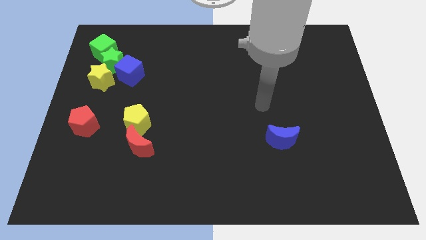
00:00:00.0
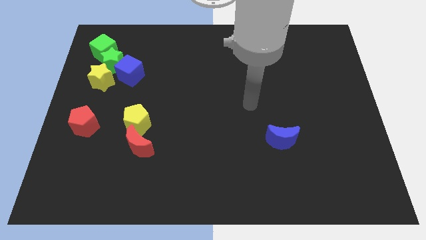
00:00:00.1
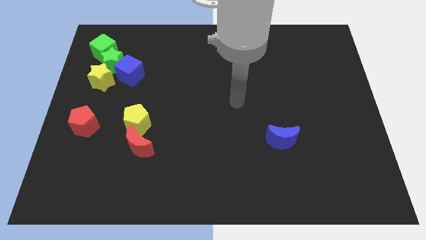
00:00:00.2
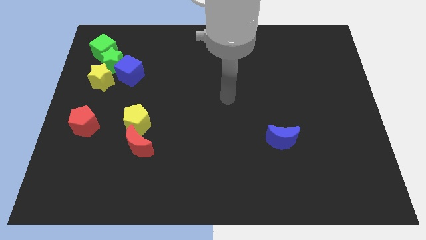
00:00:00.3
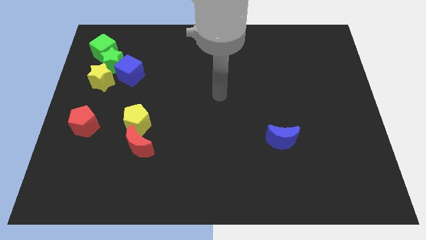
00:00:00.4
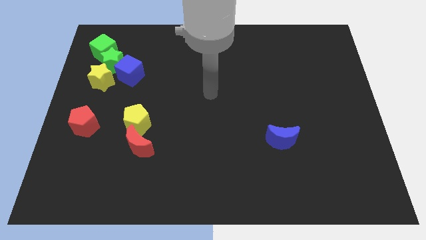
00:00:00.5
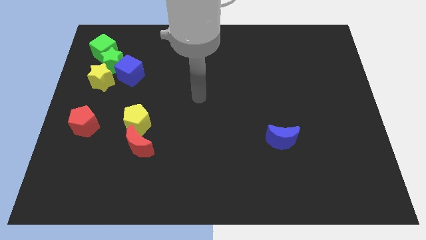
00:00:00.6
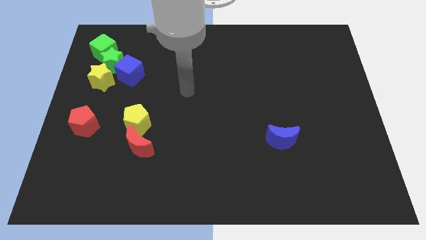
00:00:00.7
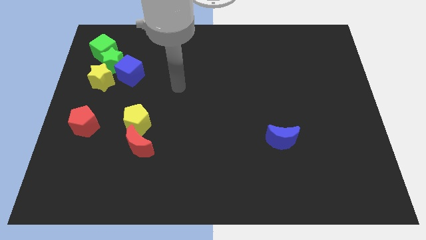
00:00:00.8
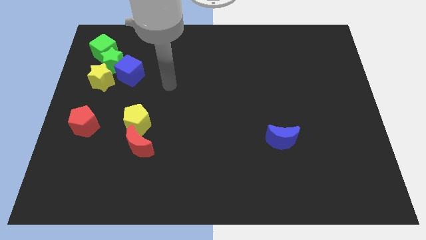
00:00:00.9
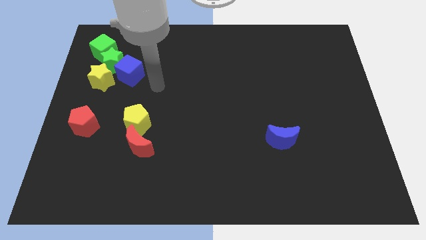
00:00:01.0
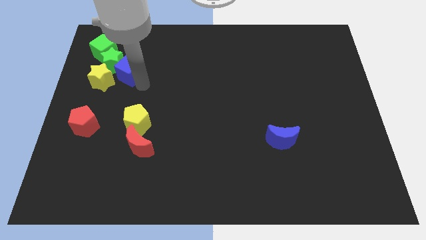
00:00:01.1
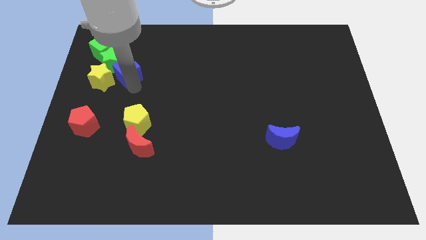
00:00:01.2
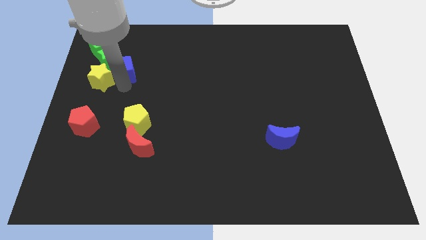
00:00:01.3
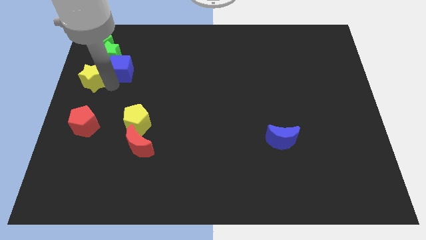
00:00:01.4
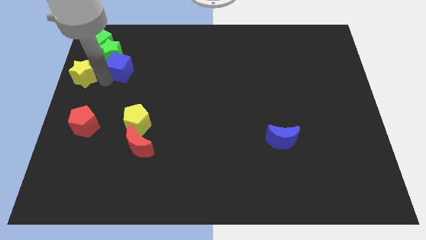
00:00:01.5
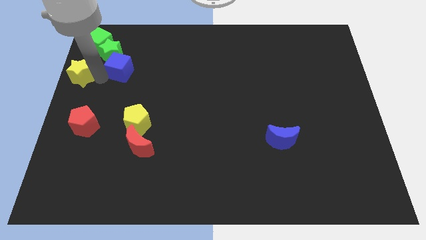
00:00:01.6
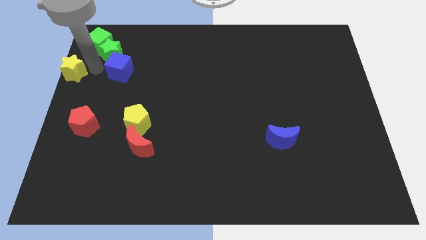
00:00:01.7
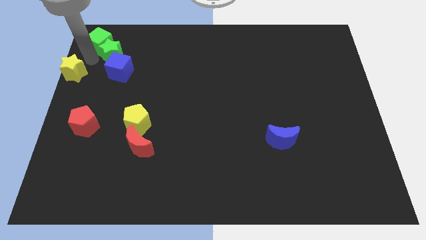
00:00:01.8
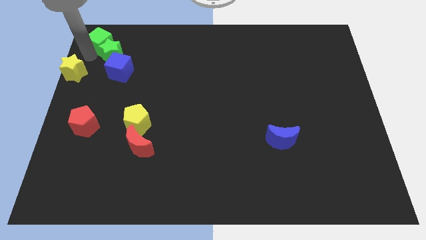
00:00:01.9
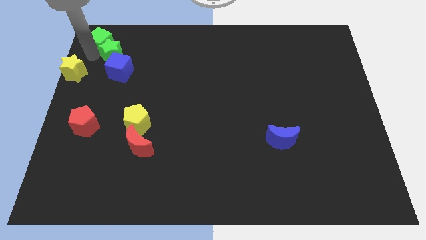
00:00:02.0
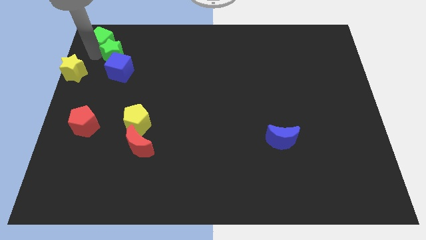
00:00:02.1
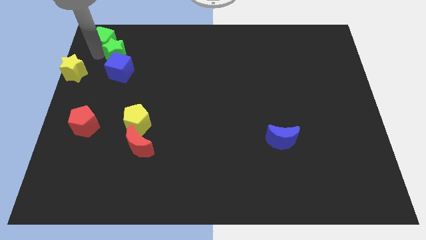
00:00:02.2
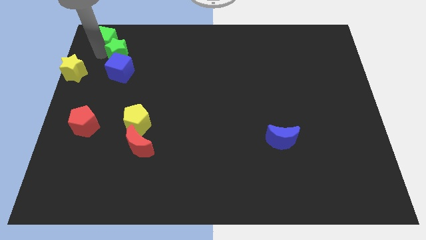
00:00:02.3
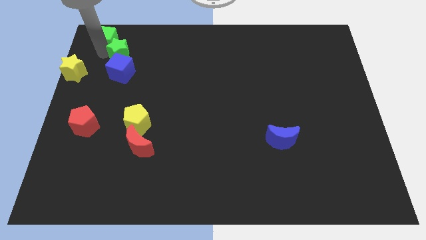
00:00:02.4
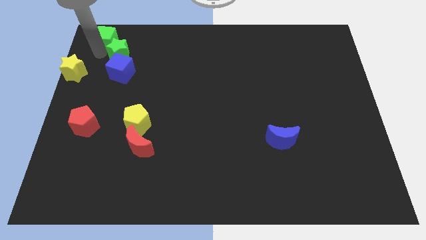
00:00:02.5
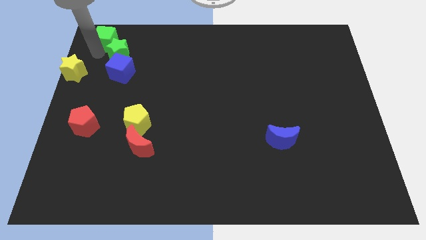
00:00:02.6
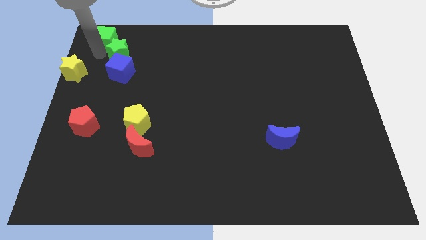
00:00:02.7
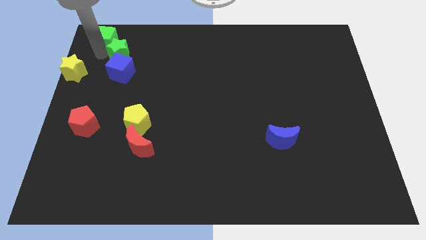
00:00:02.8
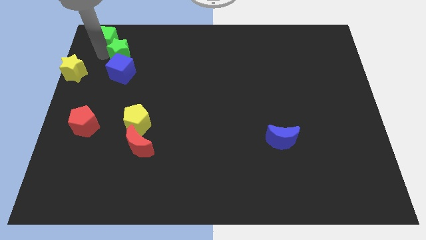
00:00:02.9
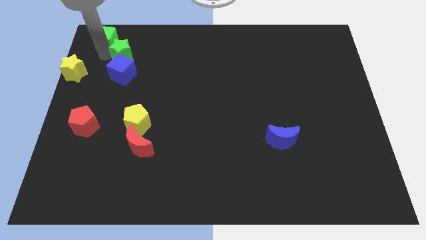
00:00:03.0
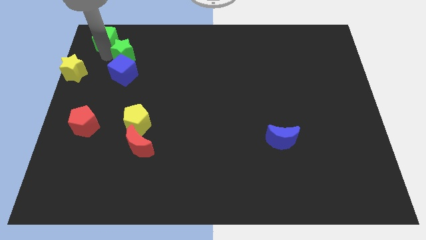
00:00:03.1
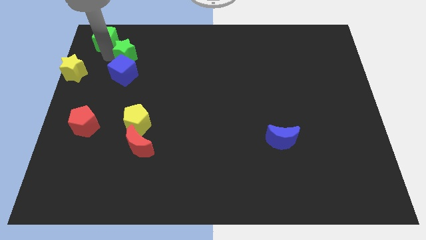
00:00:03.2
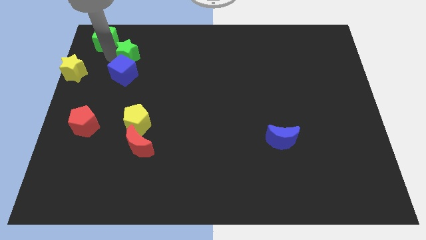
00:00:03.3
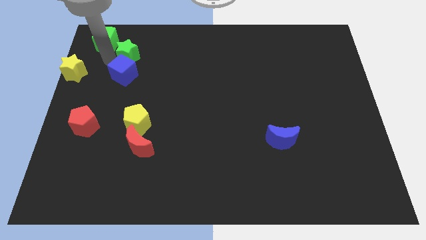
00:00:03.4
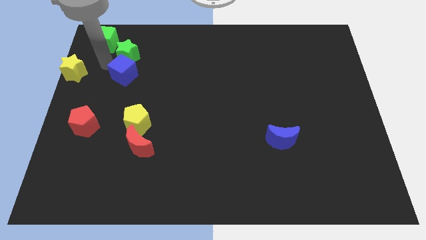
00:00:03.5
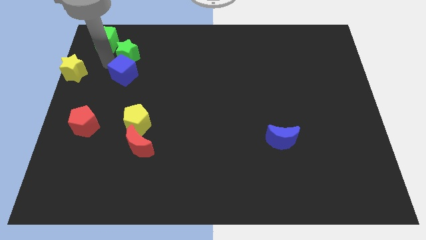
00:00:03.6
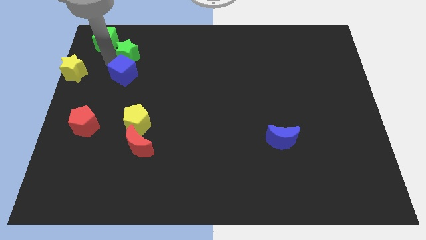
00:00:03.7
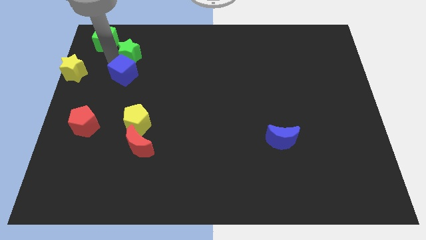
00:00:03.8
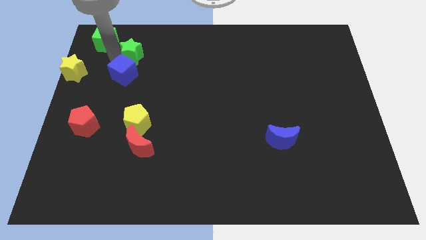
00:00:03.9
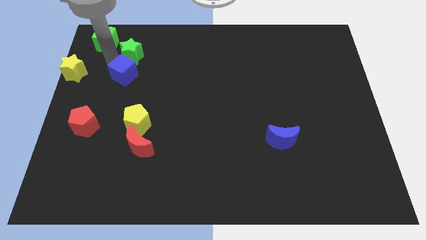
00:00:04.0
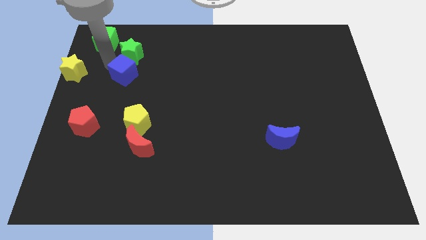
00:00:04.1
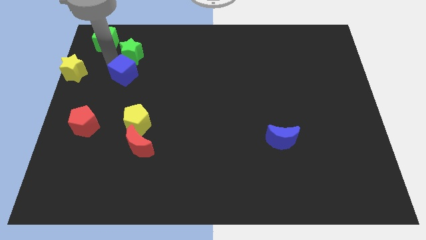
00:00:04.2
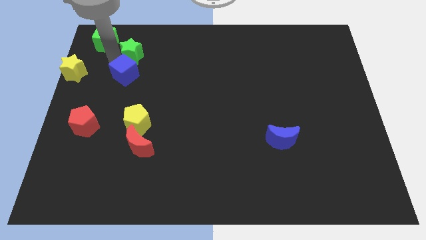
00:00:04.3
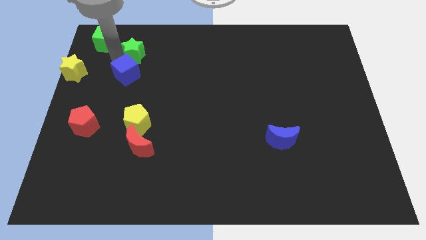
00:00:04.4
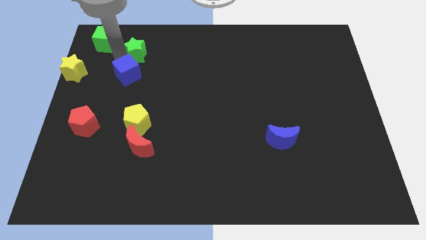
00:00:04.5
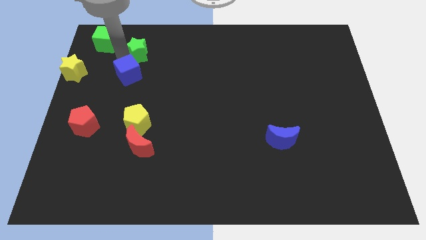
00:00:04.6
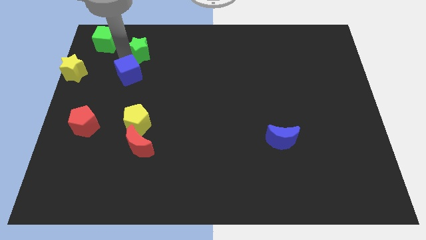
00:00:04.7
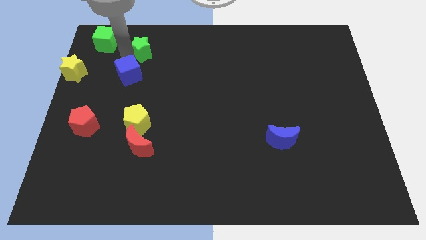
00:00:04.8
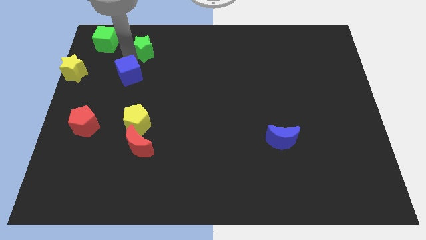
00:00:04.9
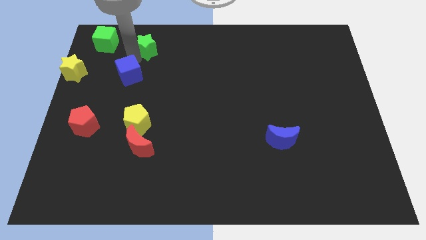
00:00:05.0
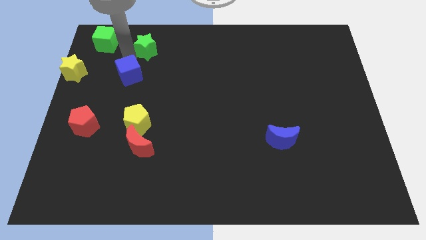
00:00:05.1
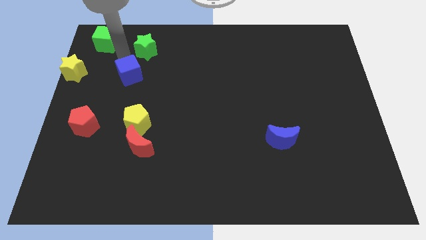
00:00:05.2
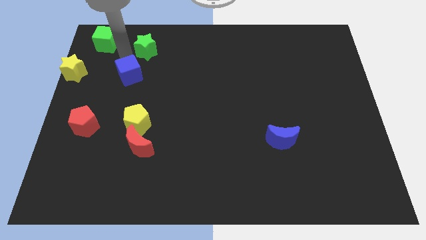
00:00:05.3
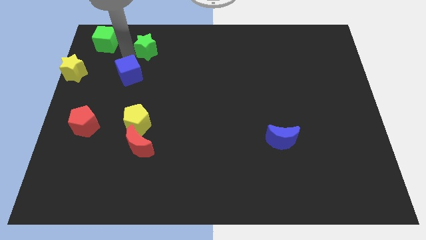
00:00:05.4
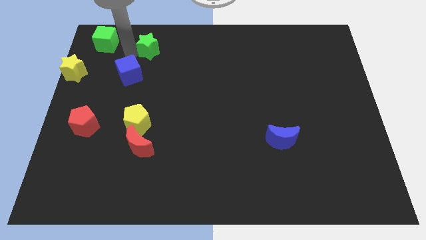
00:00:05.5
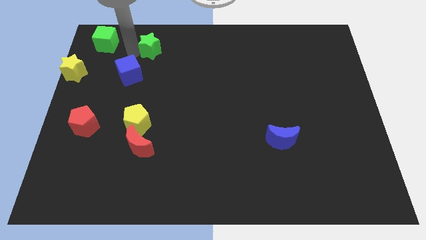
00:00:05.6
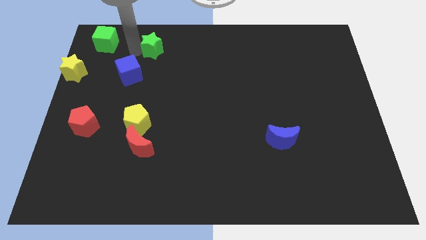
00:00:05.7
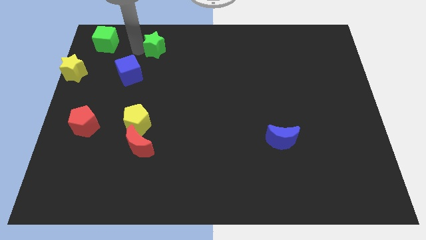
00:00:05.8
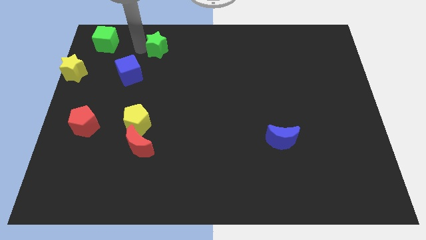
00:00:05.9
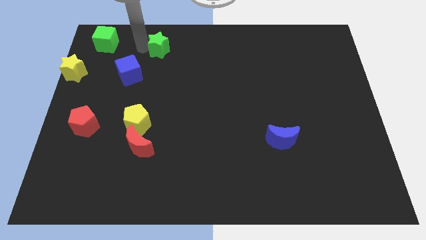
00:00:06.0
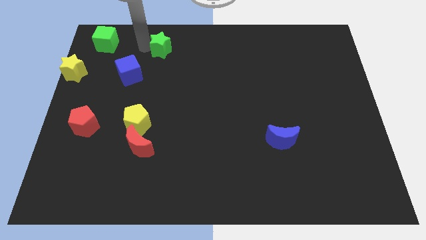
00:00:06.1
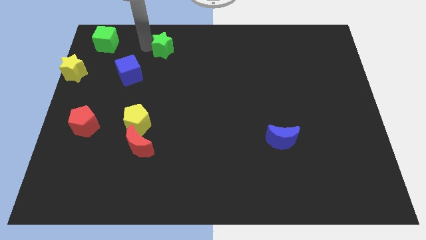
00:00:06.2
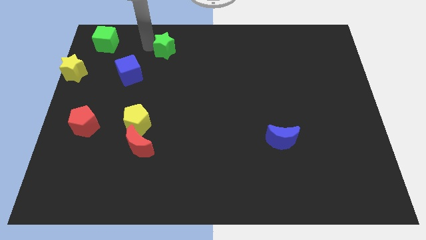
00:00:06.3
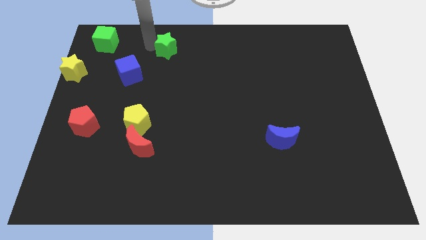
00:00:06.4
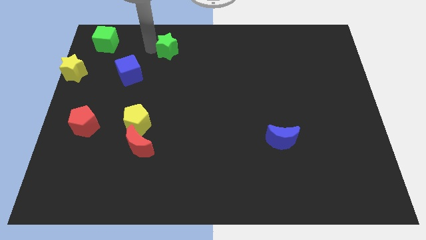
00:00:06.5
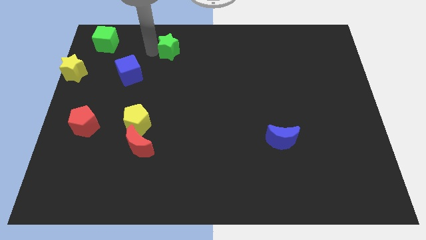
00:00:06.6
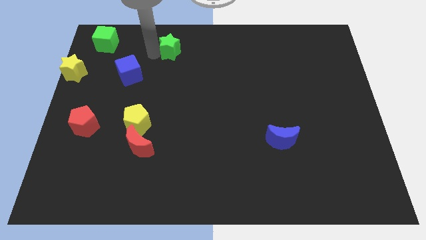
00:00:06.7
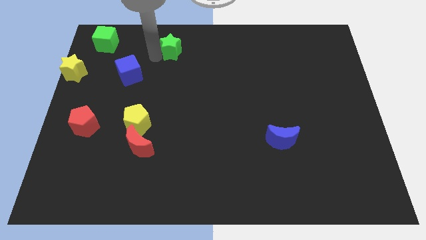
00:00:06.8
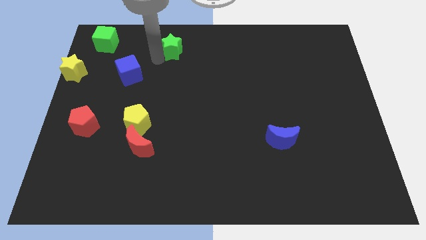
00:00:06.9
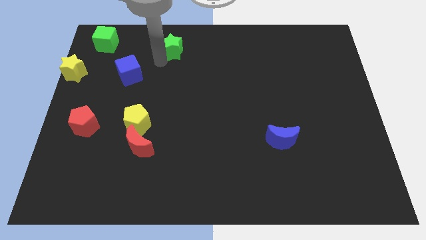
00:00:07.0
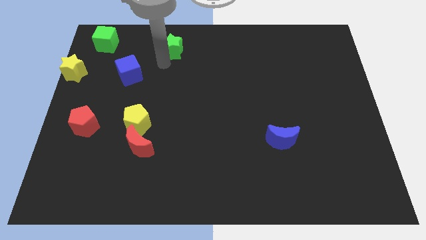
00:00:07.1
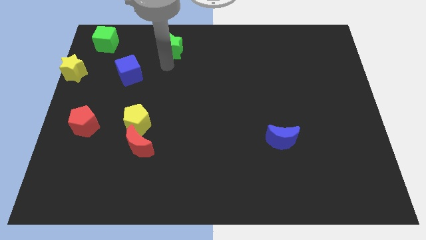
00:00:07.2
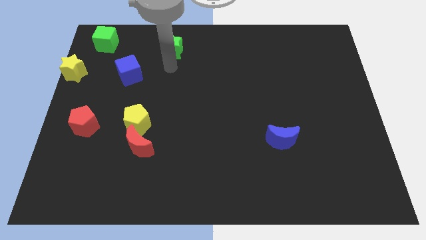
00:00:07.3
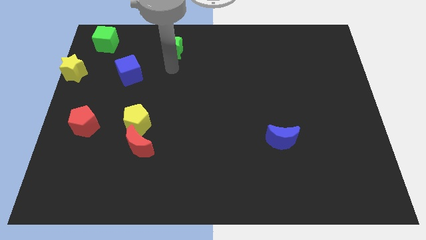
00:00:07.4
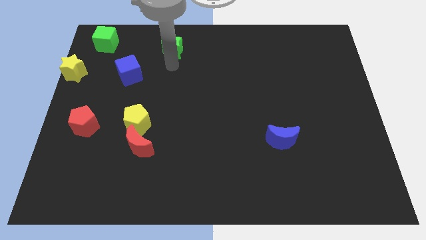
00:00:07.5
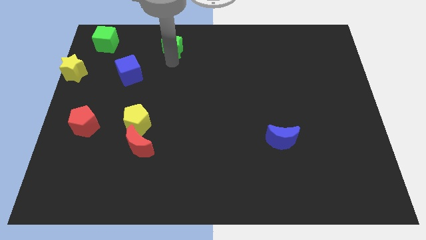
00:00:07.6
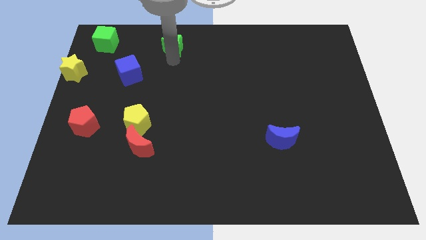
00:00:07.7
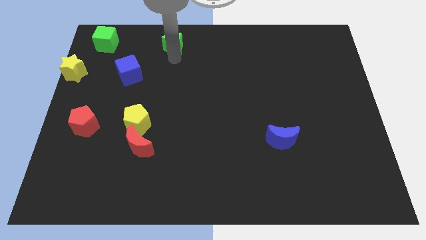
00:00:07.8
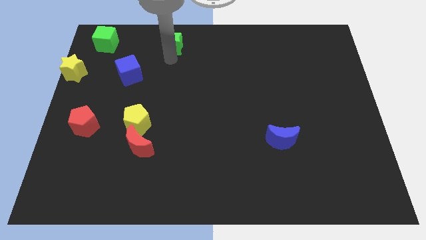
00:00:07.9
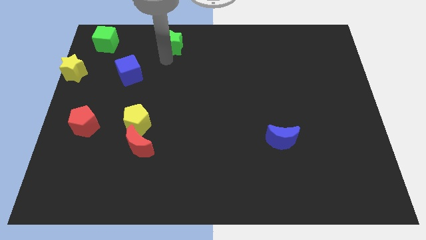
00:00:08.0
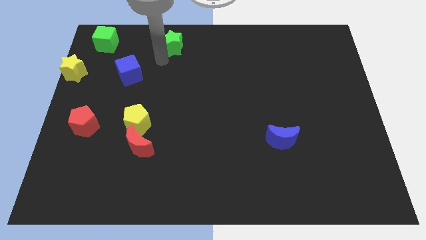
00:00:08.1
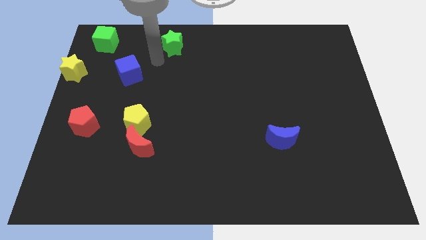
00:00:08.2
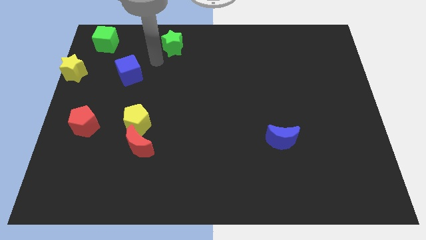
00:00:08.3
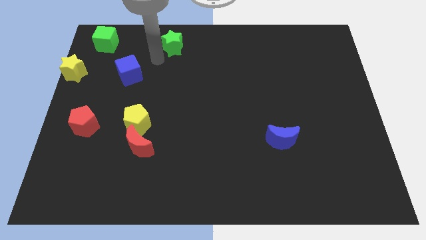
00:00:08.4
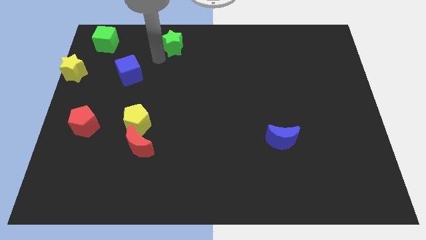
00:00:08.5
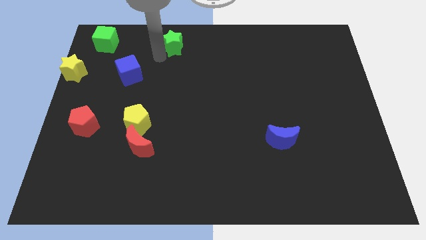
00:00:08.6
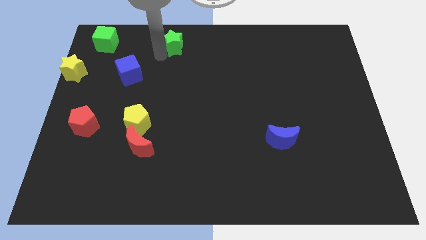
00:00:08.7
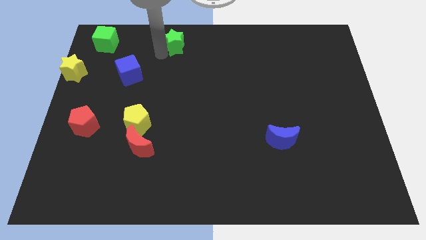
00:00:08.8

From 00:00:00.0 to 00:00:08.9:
put the green star to the towards your base
